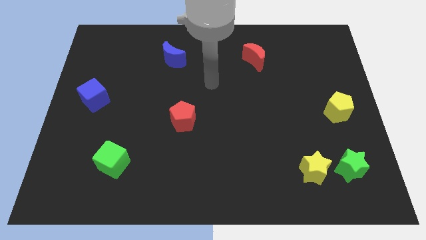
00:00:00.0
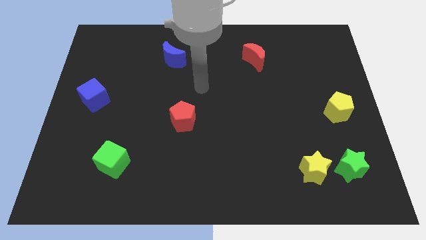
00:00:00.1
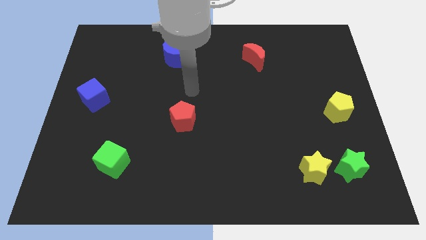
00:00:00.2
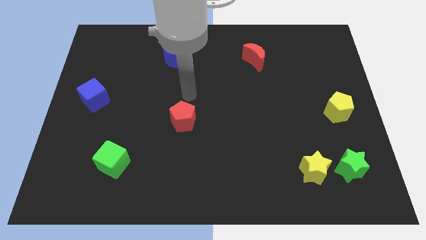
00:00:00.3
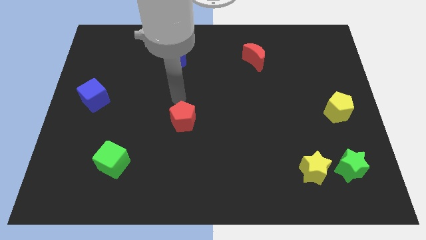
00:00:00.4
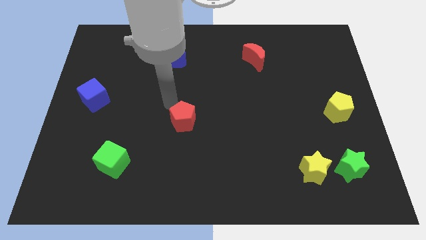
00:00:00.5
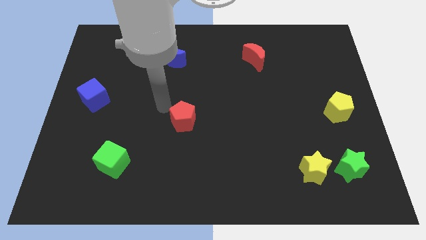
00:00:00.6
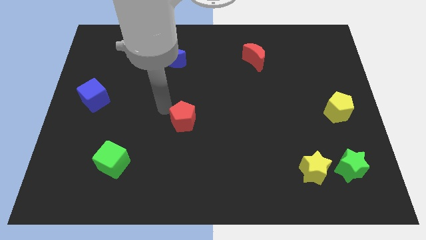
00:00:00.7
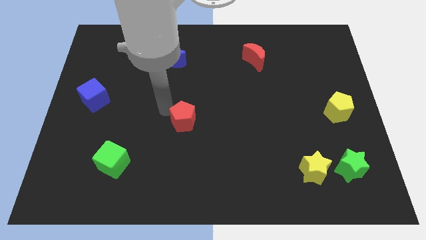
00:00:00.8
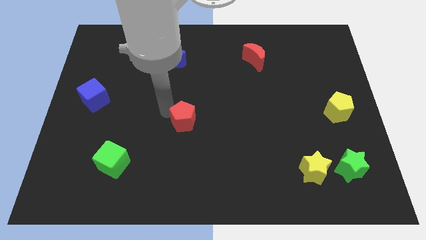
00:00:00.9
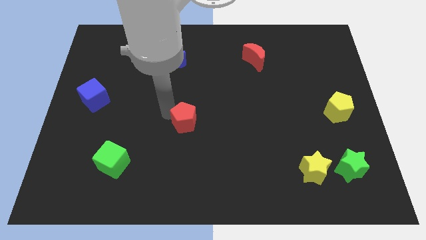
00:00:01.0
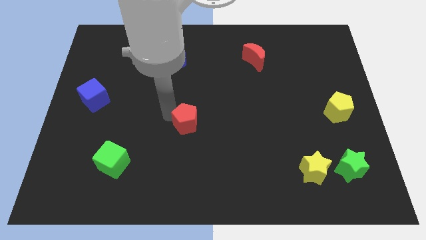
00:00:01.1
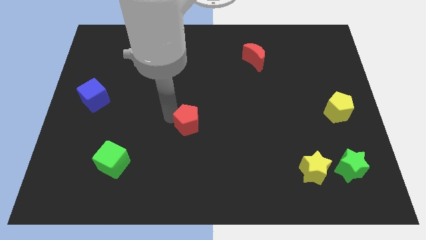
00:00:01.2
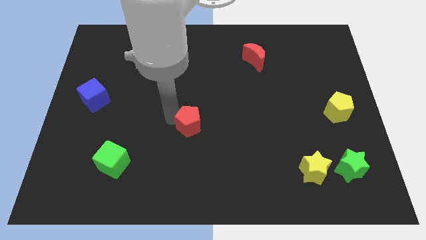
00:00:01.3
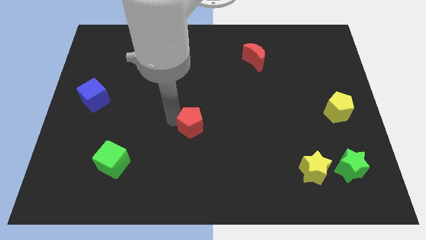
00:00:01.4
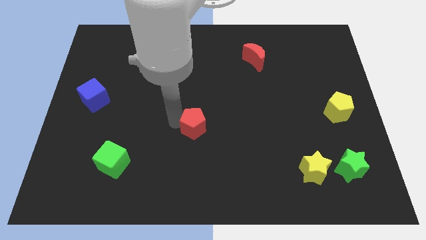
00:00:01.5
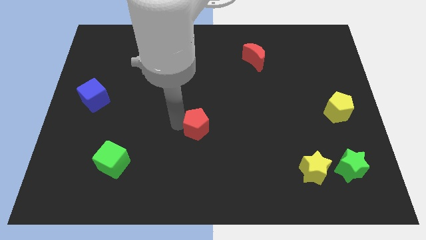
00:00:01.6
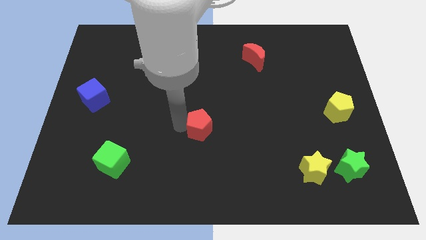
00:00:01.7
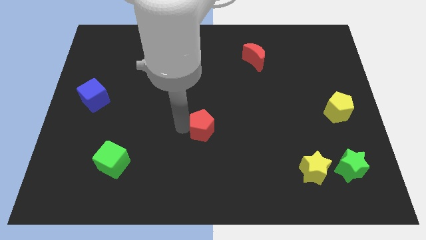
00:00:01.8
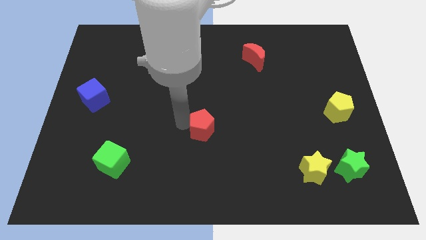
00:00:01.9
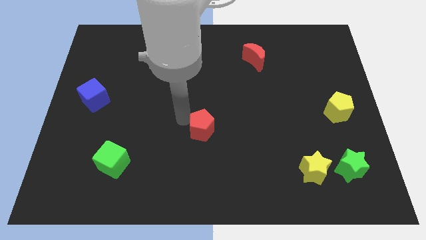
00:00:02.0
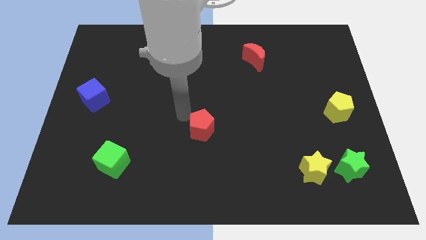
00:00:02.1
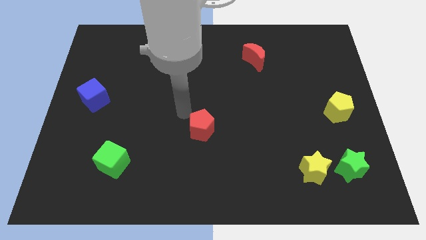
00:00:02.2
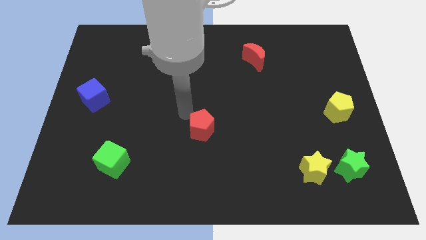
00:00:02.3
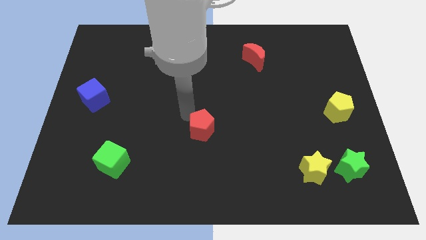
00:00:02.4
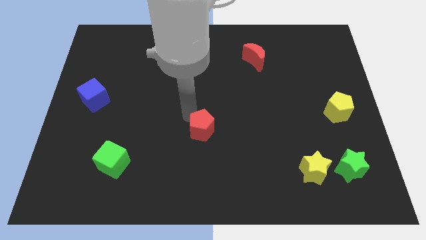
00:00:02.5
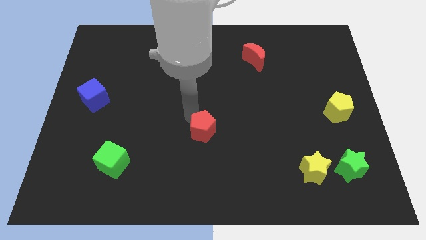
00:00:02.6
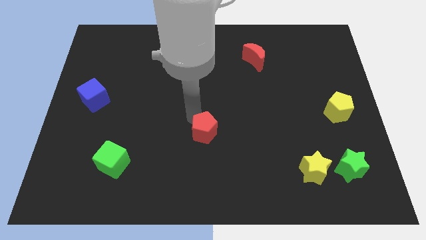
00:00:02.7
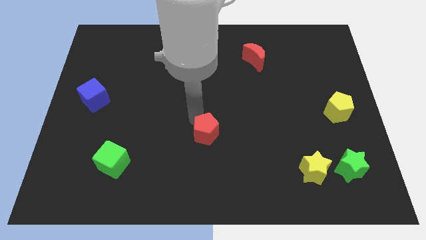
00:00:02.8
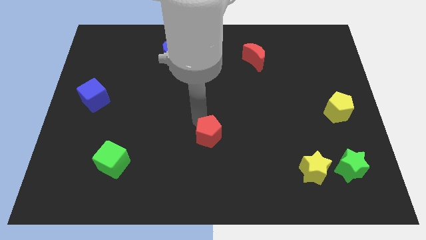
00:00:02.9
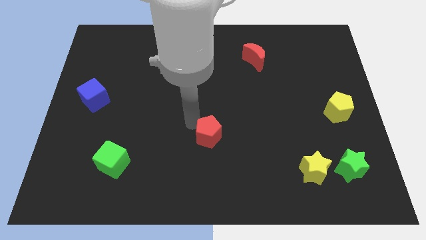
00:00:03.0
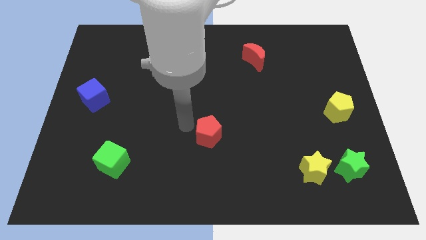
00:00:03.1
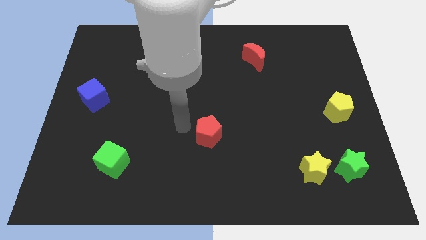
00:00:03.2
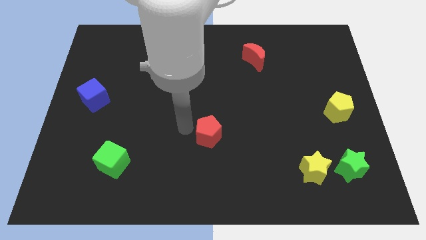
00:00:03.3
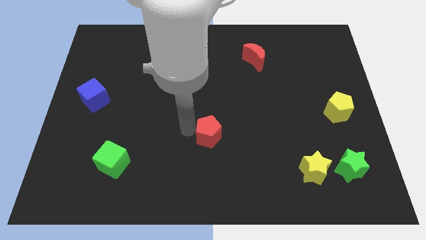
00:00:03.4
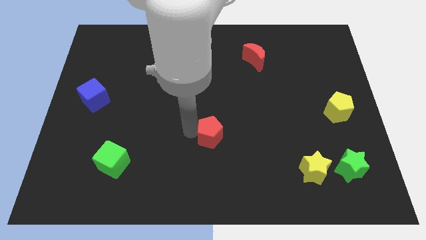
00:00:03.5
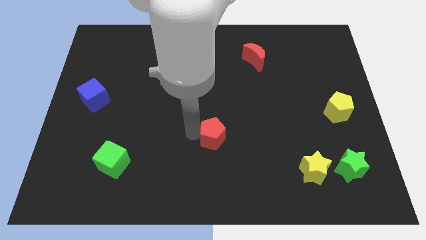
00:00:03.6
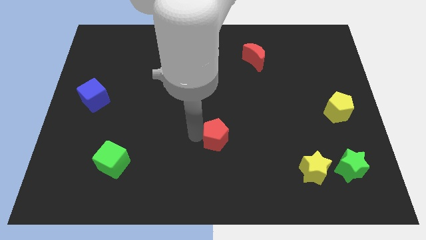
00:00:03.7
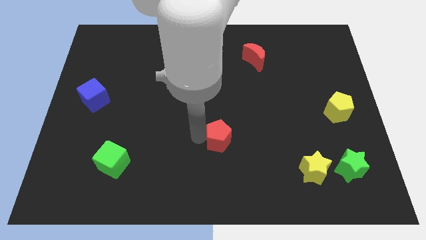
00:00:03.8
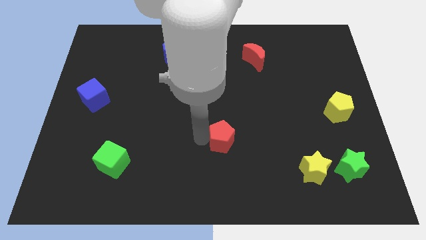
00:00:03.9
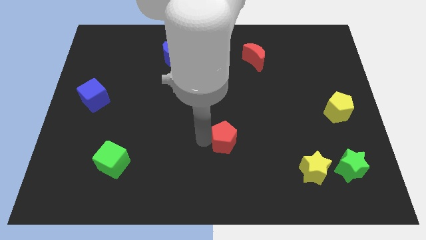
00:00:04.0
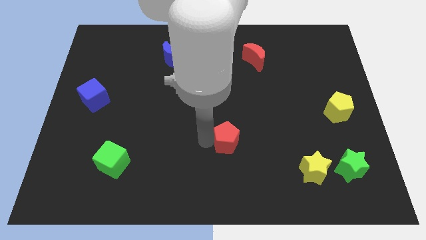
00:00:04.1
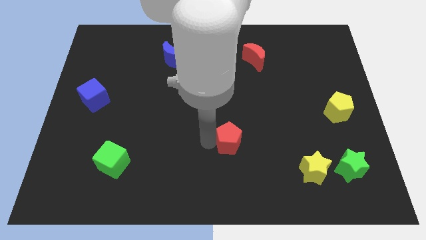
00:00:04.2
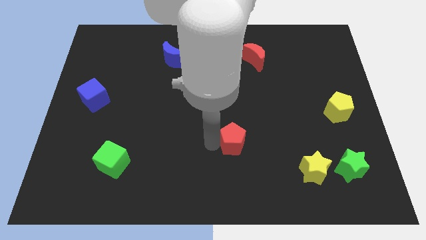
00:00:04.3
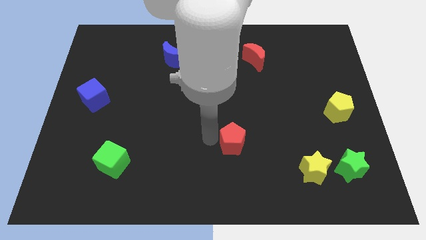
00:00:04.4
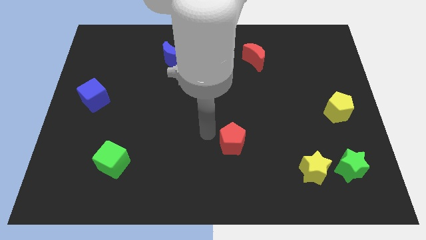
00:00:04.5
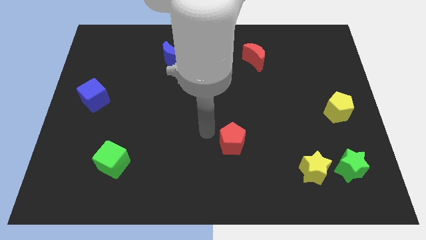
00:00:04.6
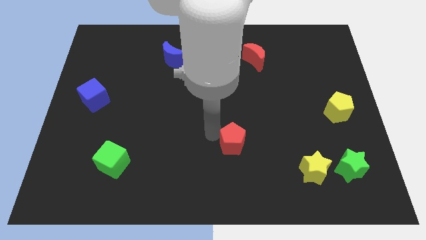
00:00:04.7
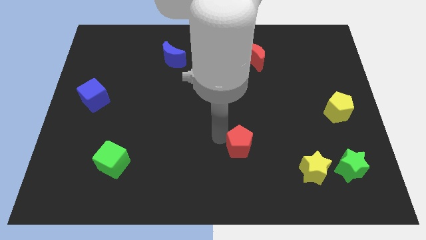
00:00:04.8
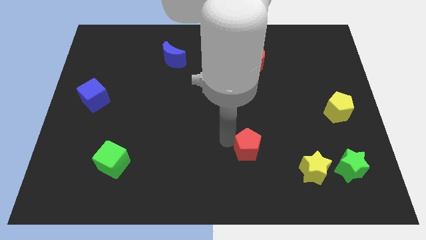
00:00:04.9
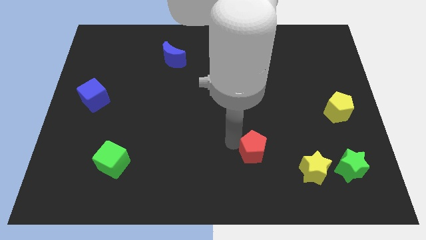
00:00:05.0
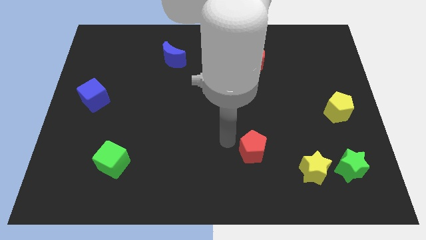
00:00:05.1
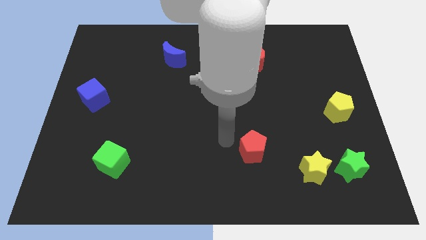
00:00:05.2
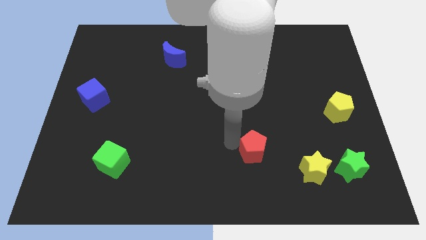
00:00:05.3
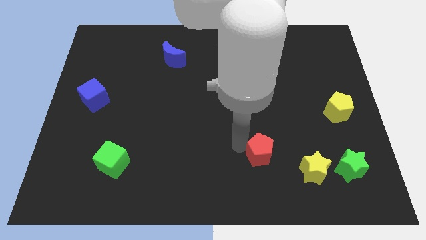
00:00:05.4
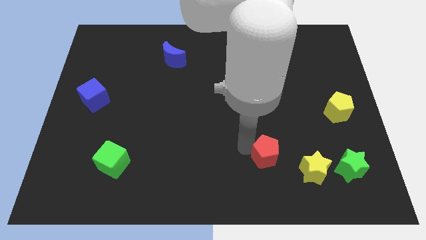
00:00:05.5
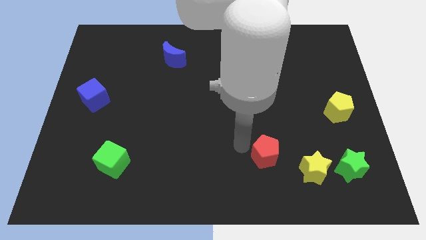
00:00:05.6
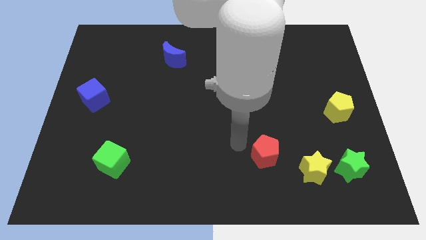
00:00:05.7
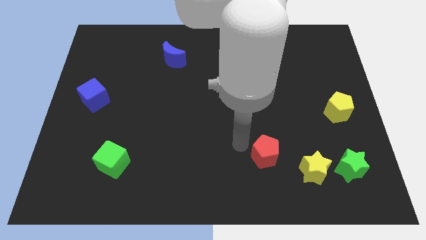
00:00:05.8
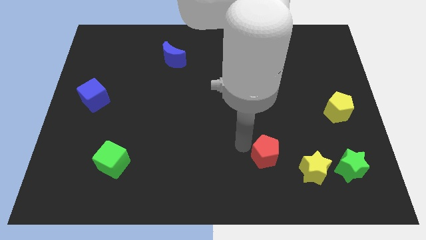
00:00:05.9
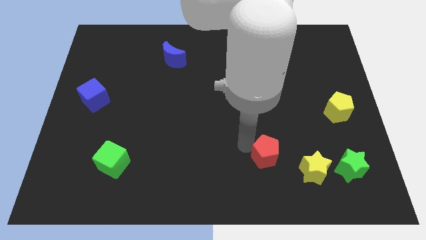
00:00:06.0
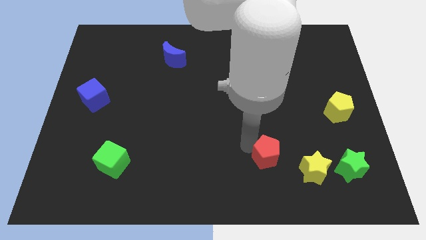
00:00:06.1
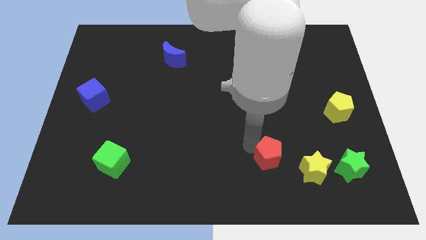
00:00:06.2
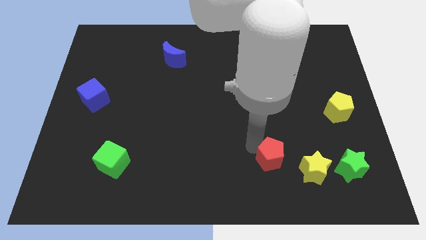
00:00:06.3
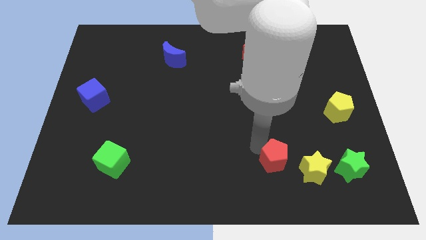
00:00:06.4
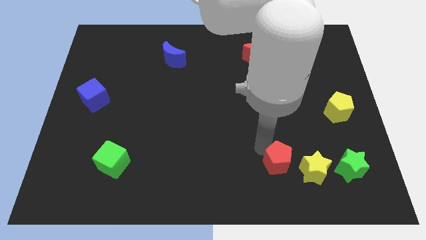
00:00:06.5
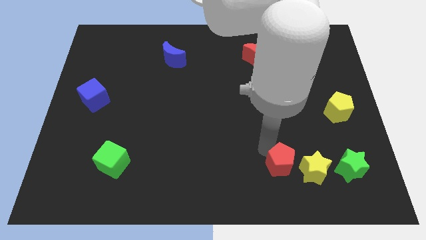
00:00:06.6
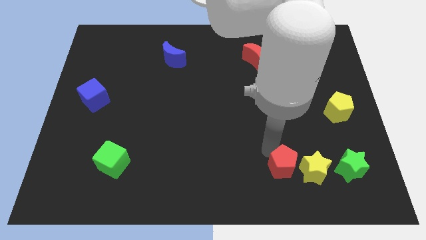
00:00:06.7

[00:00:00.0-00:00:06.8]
slide the red pentagon close to the yellow star

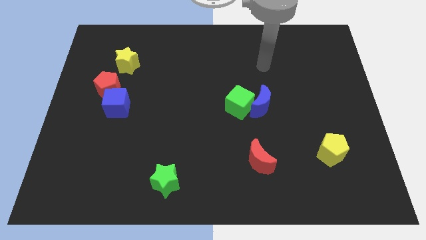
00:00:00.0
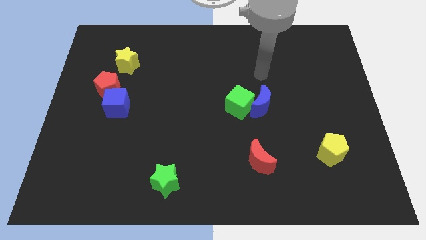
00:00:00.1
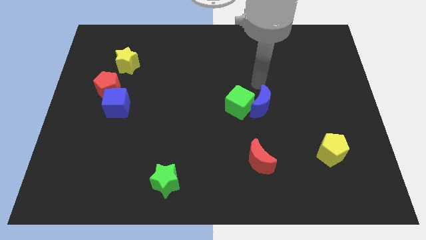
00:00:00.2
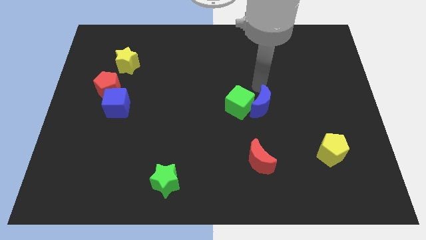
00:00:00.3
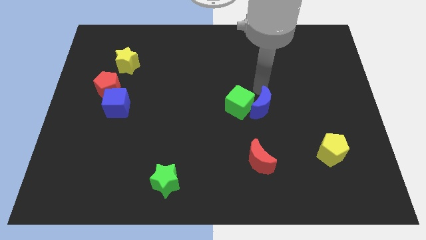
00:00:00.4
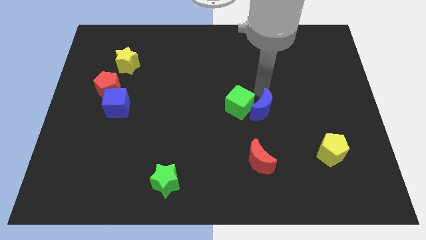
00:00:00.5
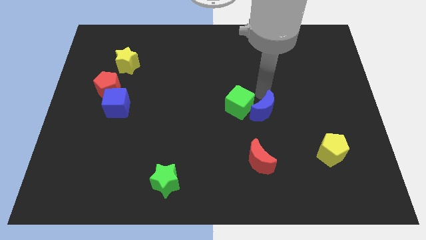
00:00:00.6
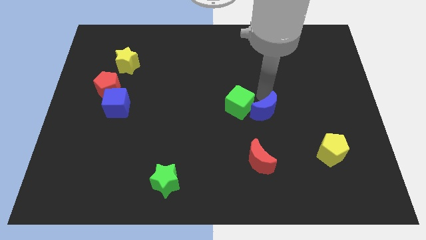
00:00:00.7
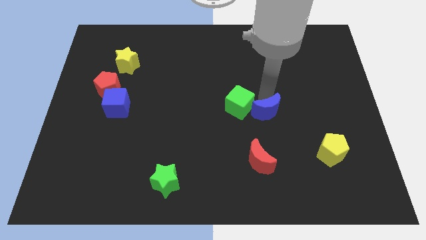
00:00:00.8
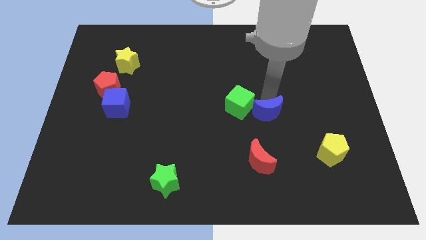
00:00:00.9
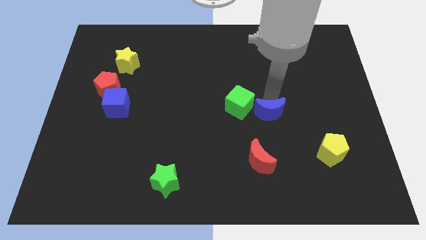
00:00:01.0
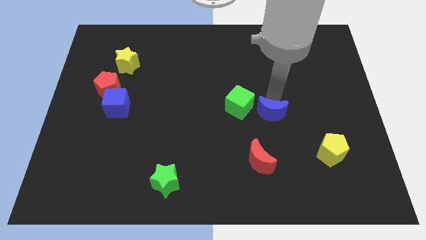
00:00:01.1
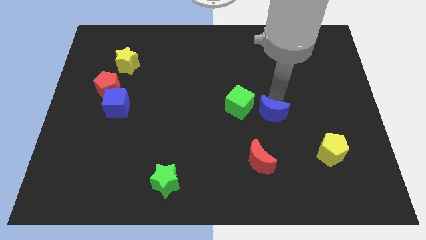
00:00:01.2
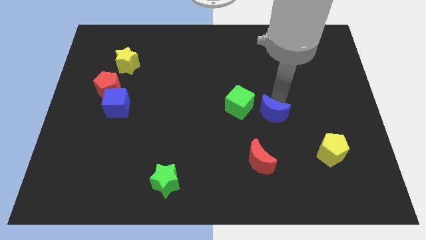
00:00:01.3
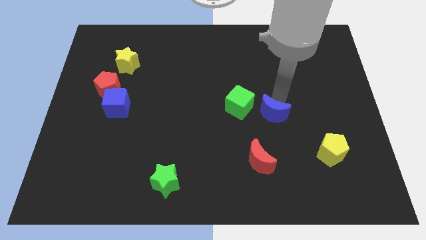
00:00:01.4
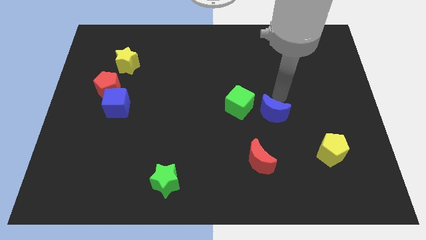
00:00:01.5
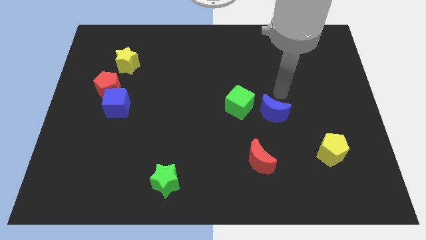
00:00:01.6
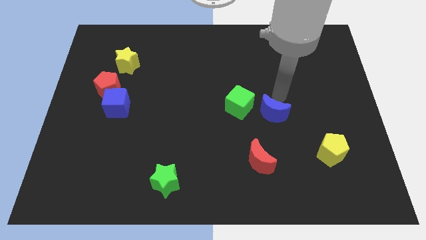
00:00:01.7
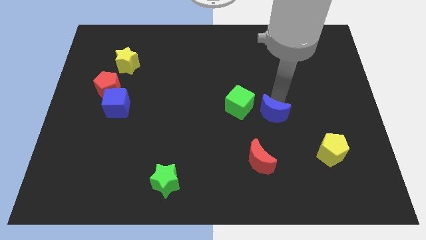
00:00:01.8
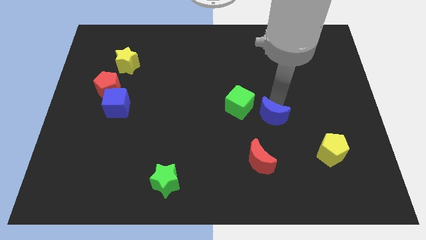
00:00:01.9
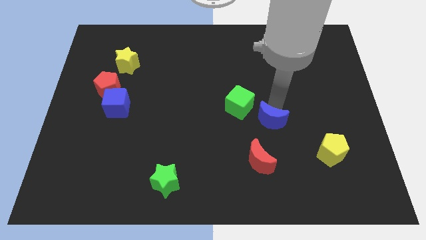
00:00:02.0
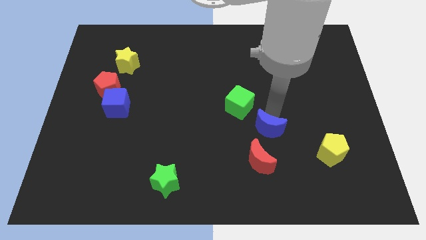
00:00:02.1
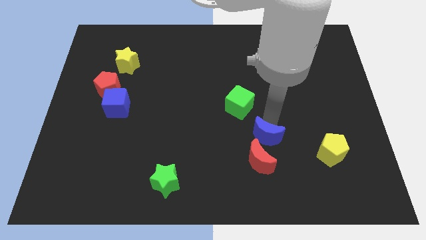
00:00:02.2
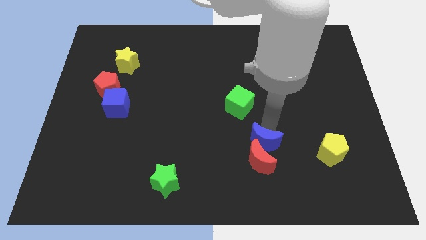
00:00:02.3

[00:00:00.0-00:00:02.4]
push the blue moon close to the red moon
